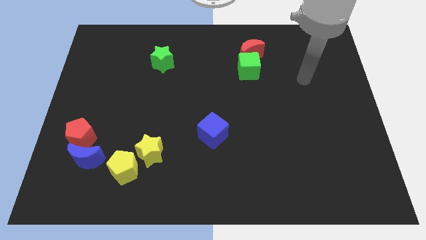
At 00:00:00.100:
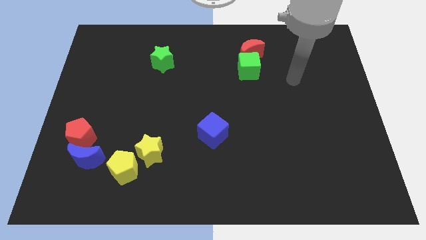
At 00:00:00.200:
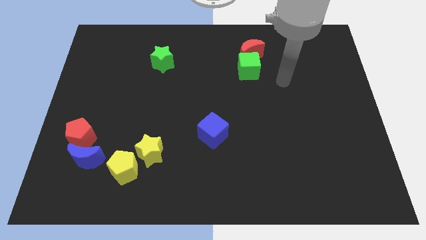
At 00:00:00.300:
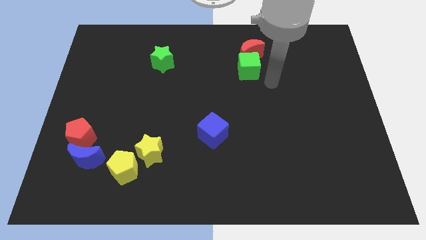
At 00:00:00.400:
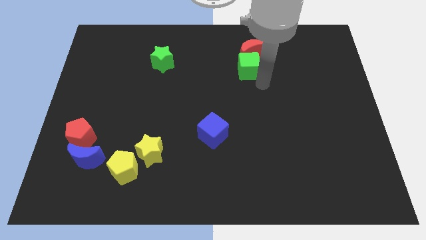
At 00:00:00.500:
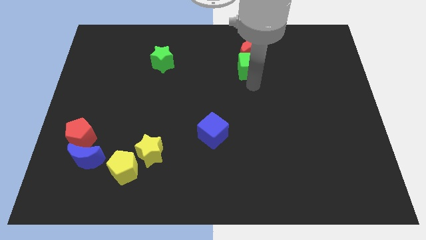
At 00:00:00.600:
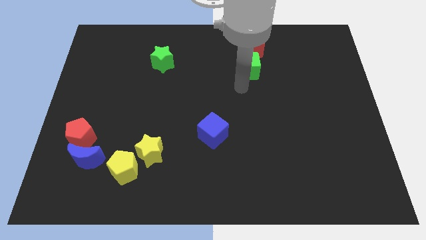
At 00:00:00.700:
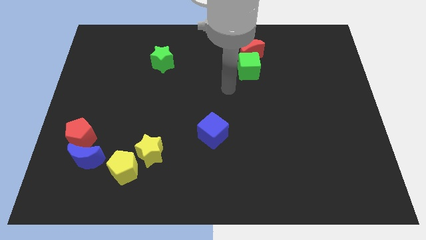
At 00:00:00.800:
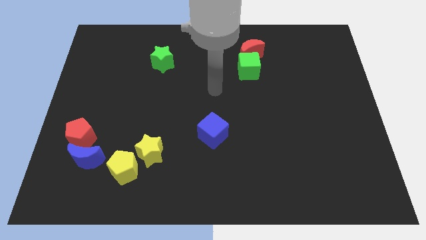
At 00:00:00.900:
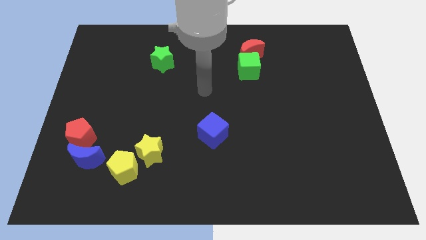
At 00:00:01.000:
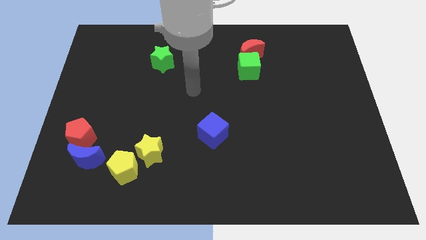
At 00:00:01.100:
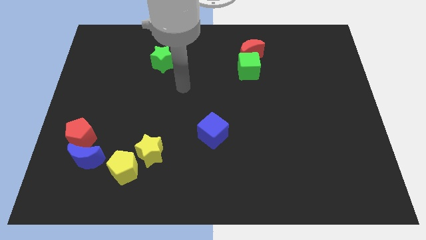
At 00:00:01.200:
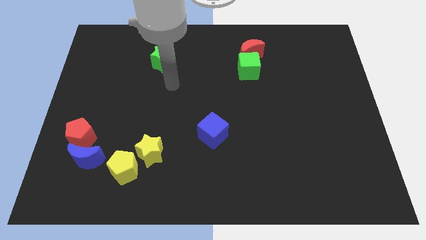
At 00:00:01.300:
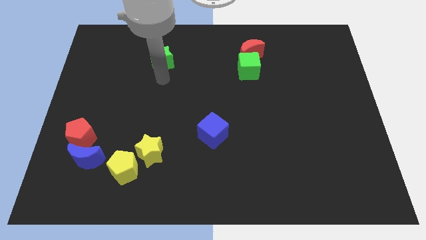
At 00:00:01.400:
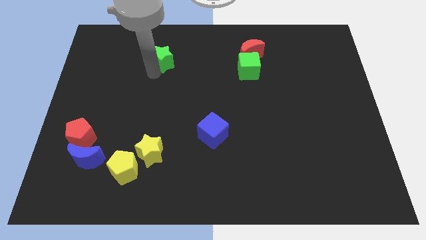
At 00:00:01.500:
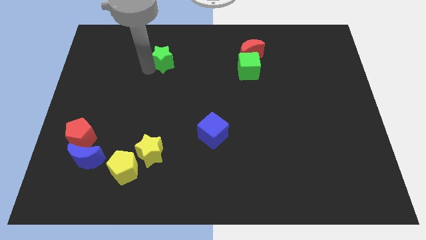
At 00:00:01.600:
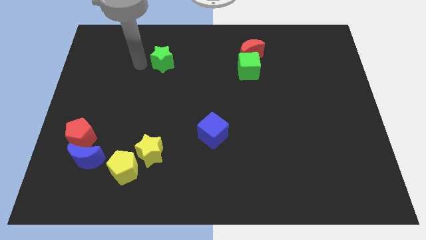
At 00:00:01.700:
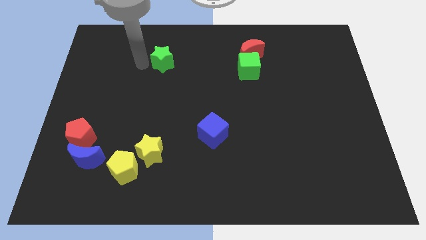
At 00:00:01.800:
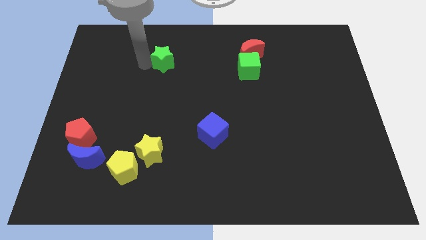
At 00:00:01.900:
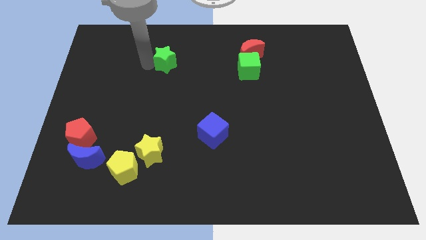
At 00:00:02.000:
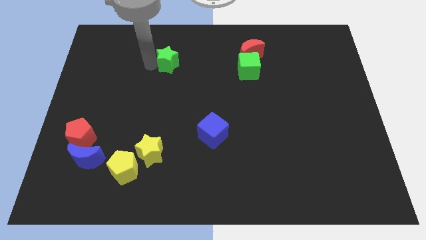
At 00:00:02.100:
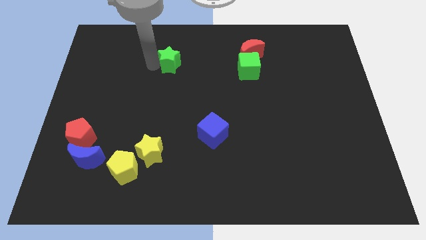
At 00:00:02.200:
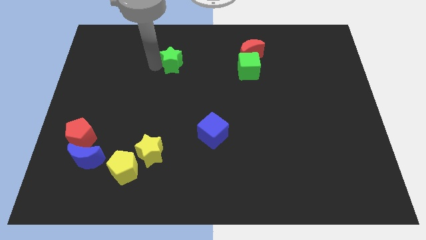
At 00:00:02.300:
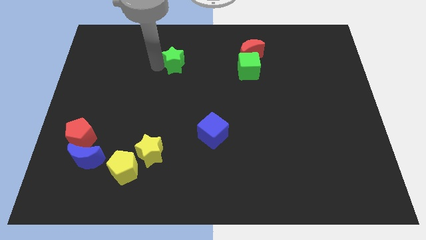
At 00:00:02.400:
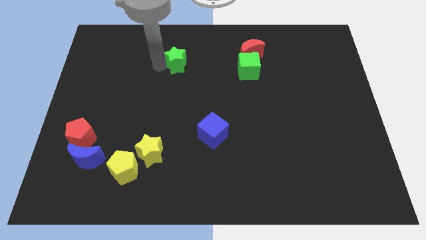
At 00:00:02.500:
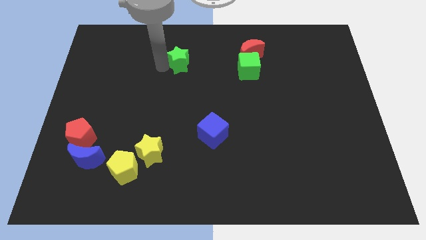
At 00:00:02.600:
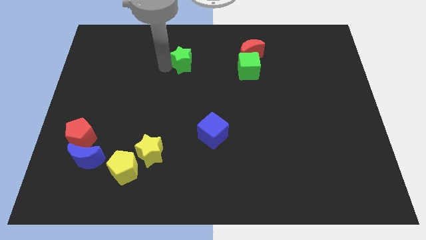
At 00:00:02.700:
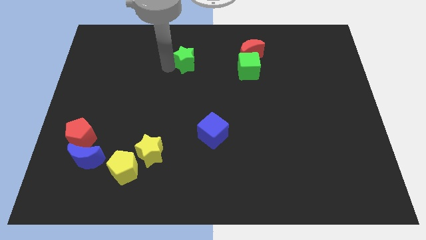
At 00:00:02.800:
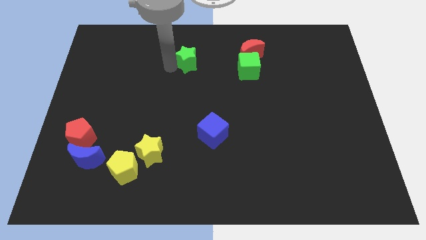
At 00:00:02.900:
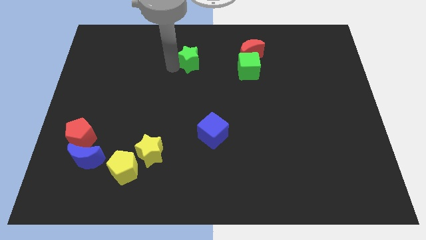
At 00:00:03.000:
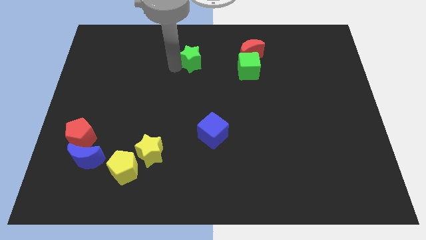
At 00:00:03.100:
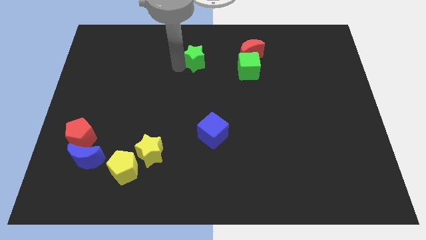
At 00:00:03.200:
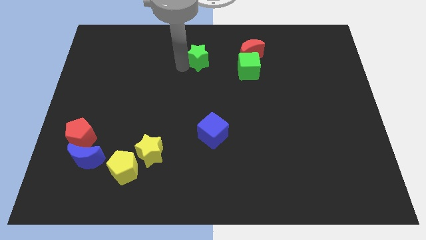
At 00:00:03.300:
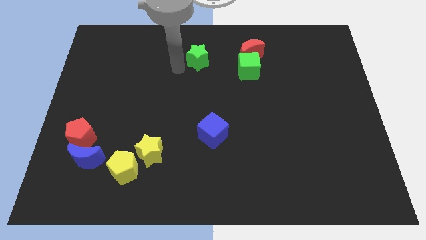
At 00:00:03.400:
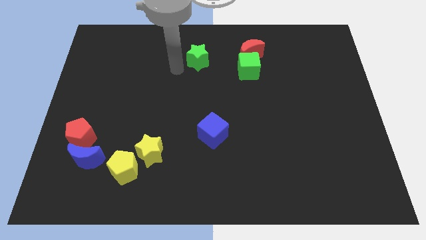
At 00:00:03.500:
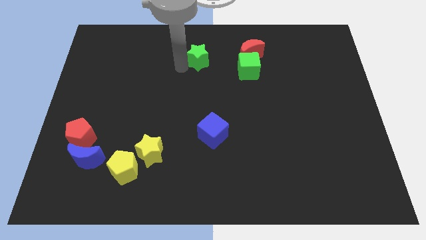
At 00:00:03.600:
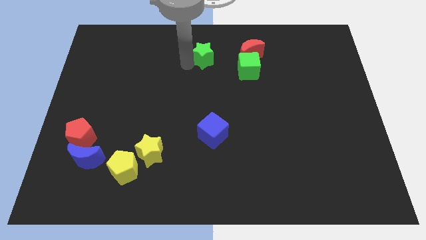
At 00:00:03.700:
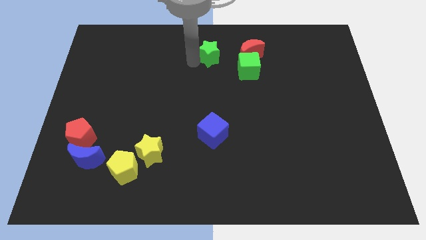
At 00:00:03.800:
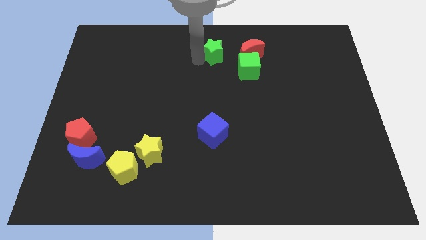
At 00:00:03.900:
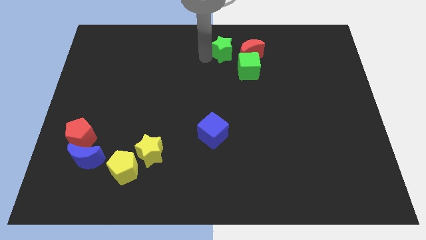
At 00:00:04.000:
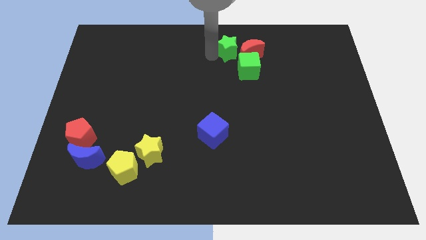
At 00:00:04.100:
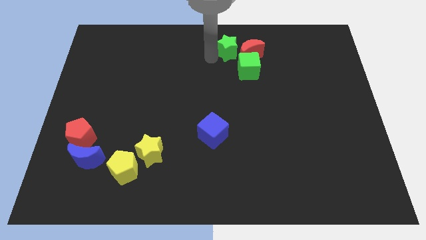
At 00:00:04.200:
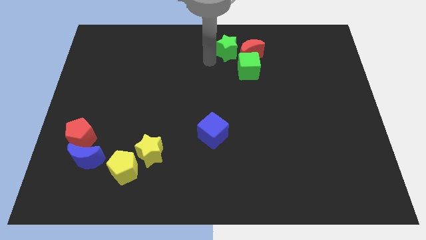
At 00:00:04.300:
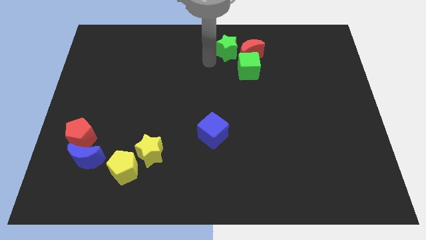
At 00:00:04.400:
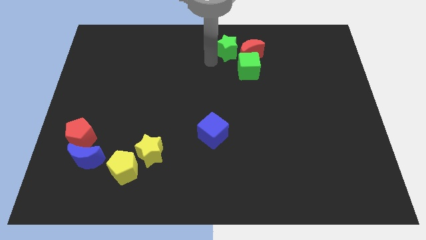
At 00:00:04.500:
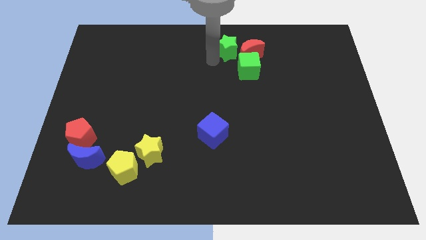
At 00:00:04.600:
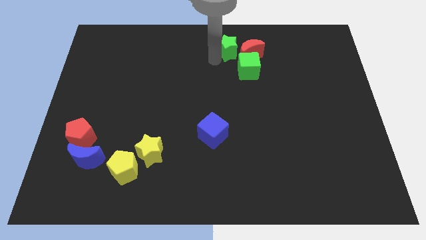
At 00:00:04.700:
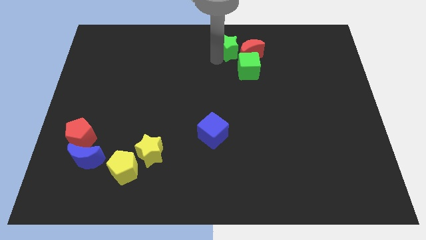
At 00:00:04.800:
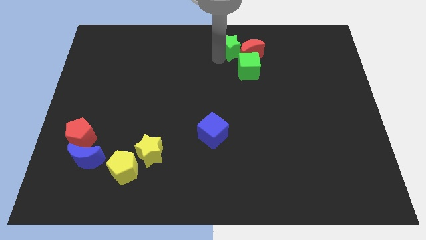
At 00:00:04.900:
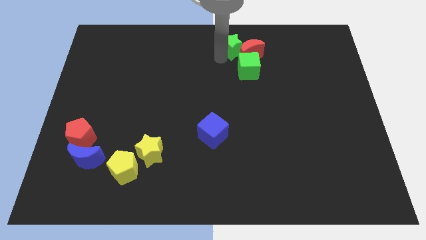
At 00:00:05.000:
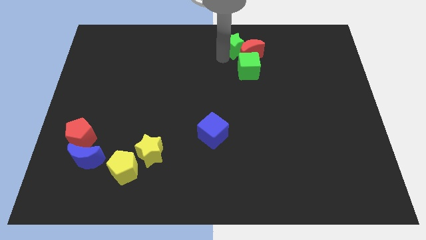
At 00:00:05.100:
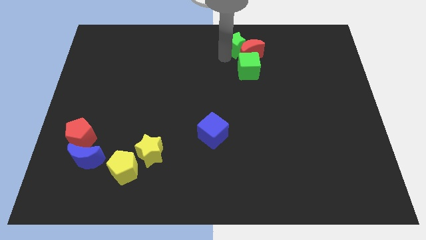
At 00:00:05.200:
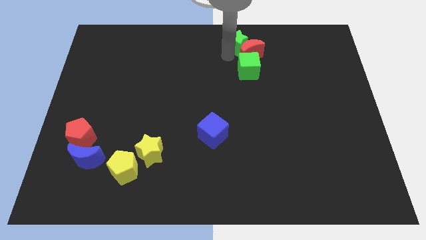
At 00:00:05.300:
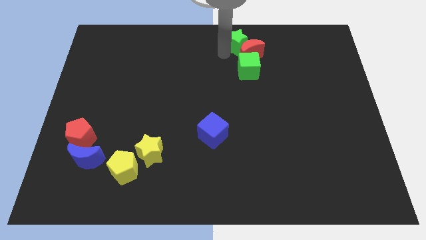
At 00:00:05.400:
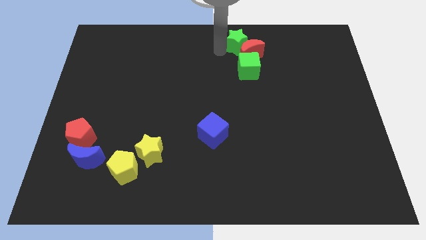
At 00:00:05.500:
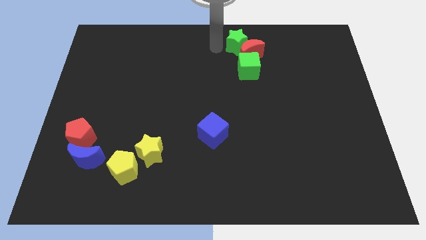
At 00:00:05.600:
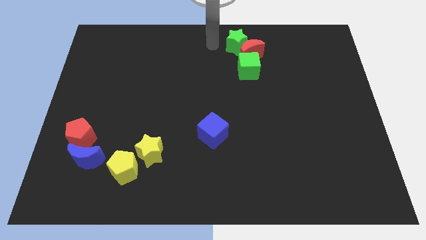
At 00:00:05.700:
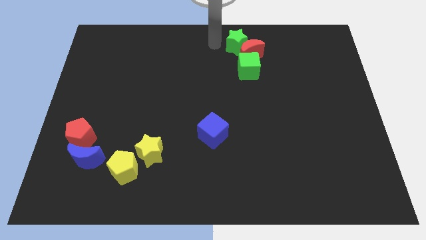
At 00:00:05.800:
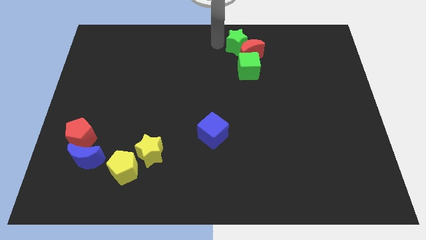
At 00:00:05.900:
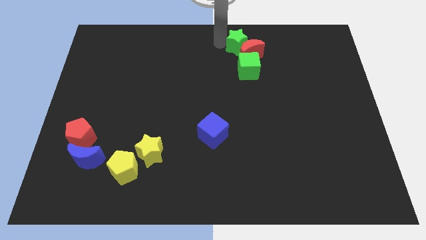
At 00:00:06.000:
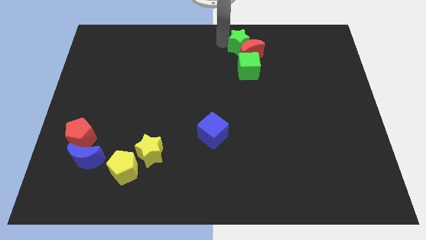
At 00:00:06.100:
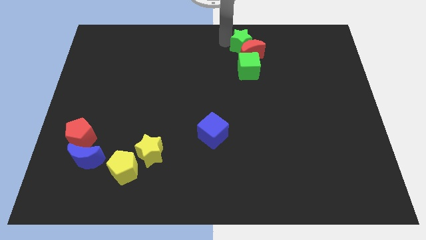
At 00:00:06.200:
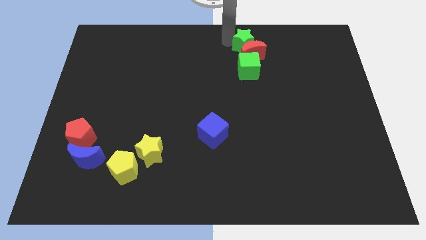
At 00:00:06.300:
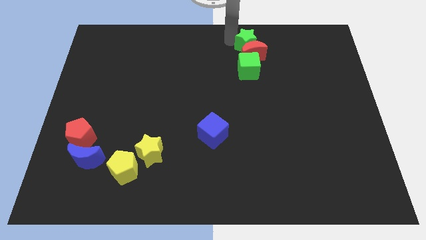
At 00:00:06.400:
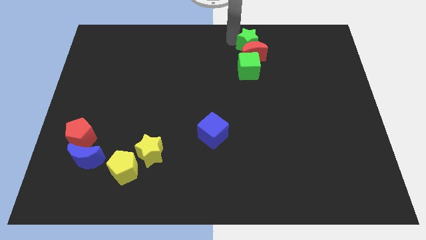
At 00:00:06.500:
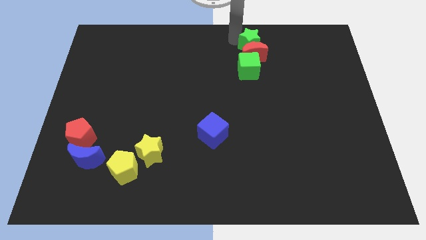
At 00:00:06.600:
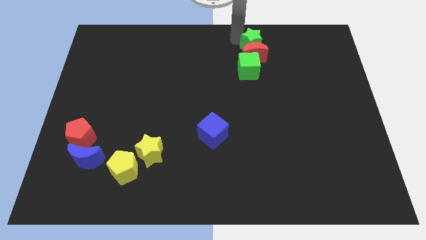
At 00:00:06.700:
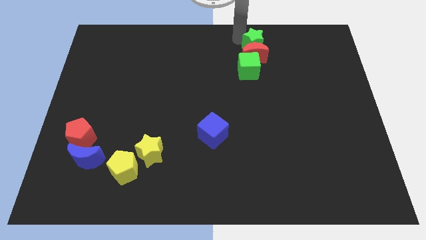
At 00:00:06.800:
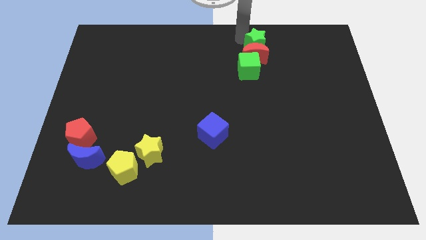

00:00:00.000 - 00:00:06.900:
move the green star to the top right of the green cube
